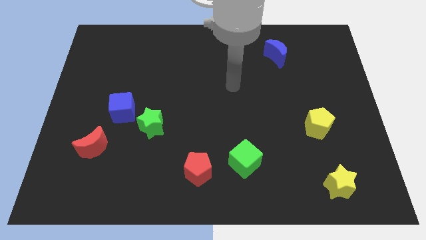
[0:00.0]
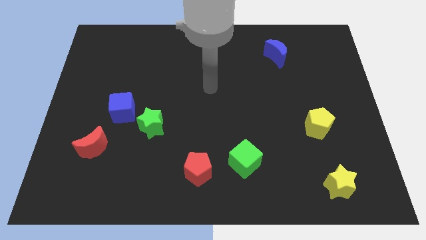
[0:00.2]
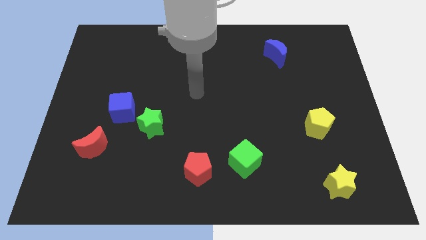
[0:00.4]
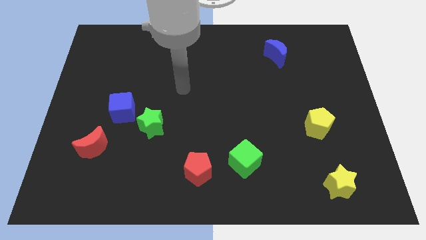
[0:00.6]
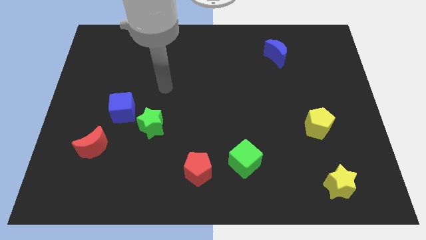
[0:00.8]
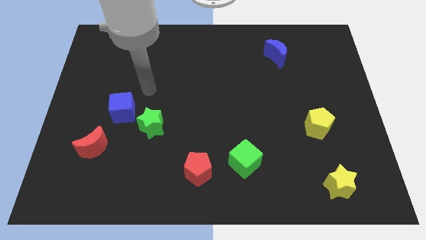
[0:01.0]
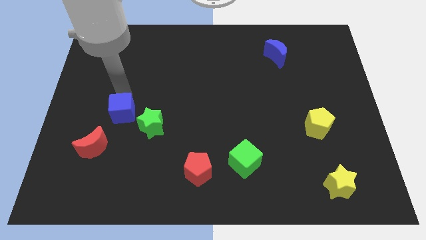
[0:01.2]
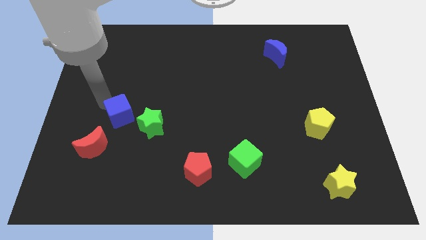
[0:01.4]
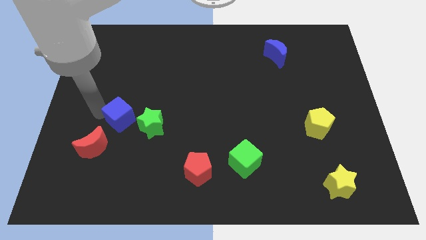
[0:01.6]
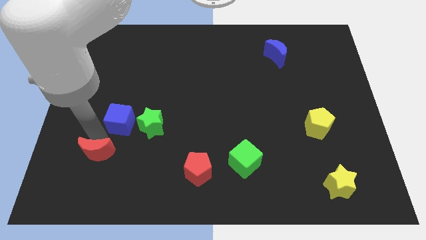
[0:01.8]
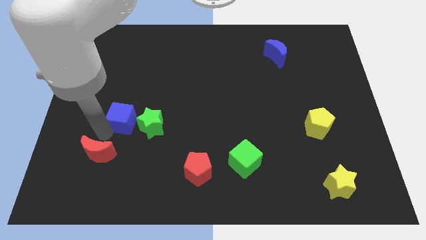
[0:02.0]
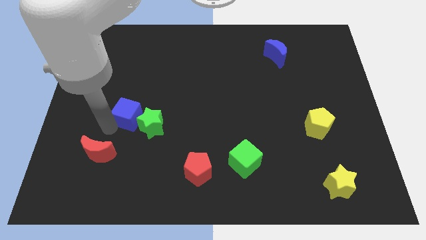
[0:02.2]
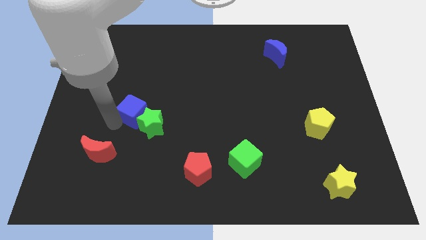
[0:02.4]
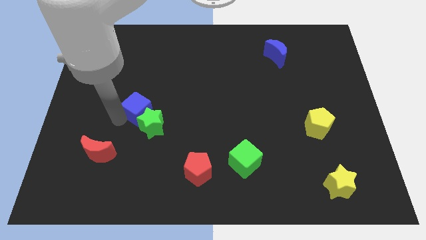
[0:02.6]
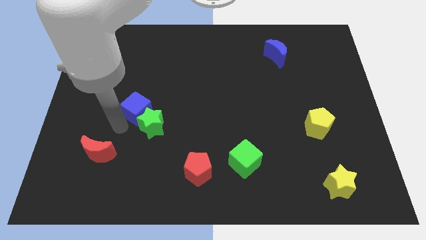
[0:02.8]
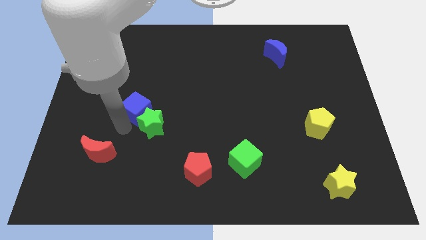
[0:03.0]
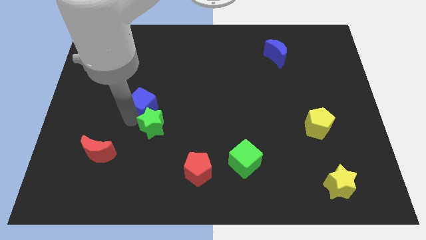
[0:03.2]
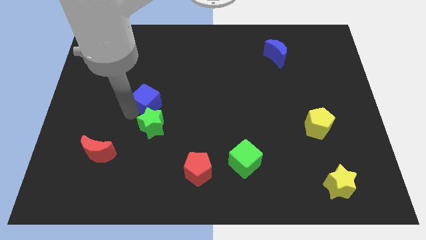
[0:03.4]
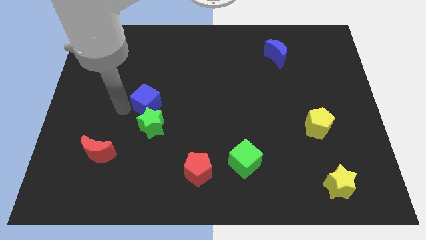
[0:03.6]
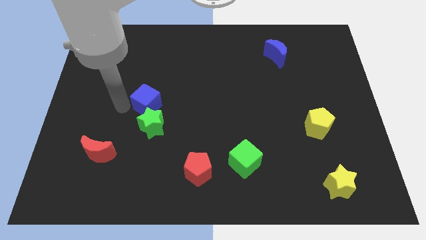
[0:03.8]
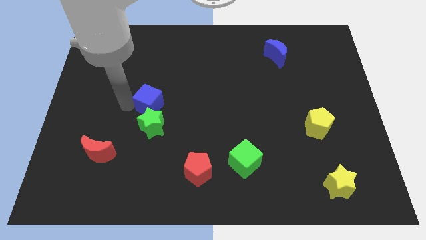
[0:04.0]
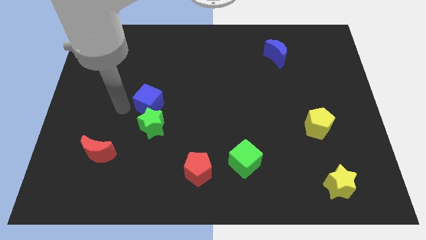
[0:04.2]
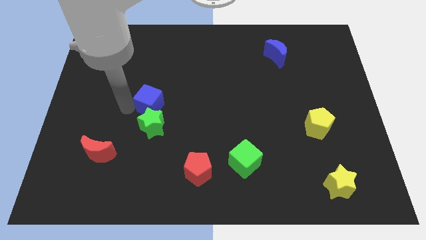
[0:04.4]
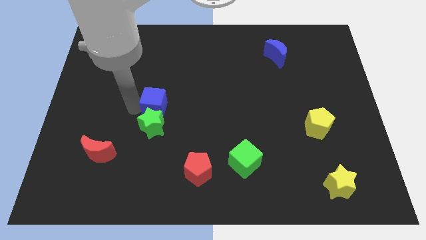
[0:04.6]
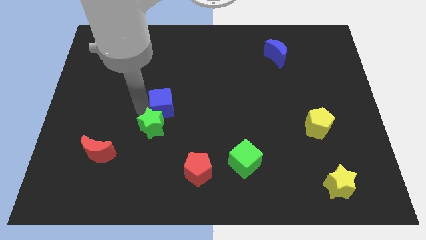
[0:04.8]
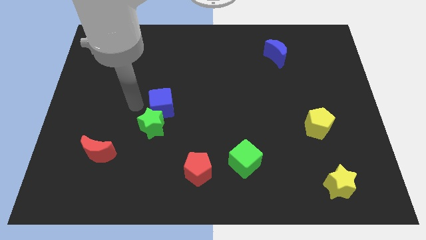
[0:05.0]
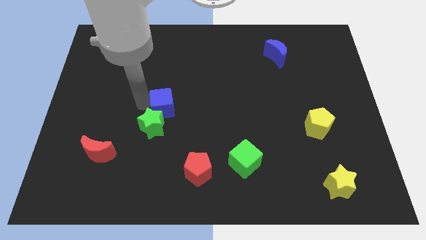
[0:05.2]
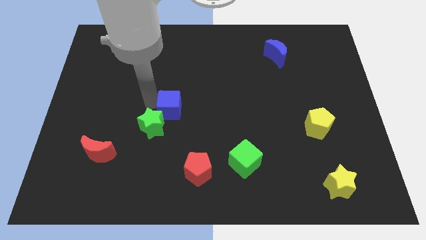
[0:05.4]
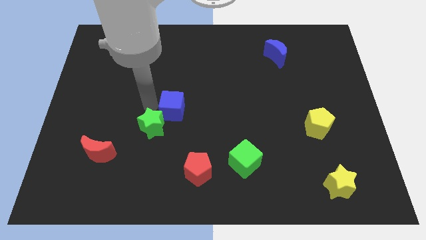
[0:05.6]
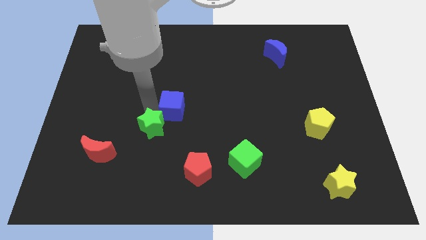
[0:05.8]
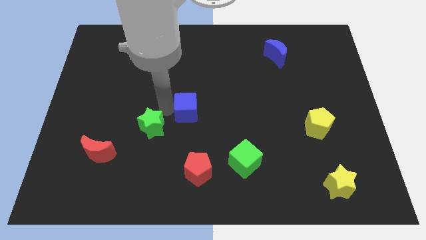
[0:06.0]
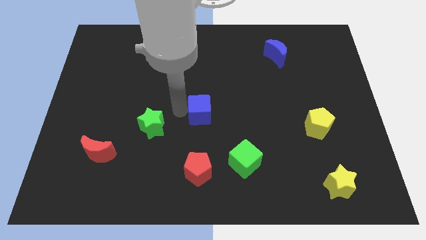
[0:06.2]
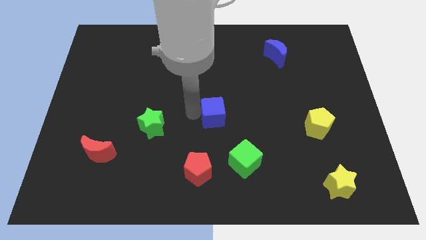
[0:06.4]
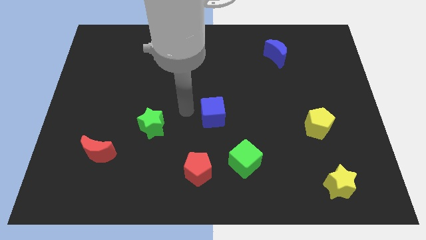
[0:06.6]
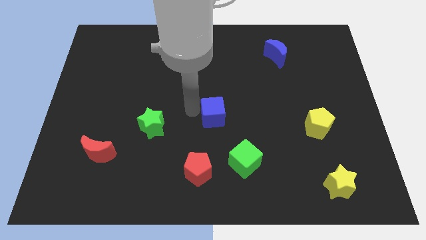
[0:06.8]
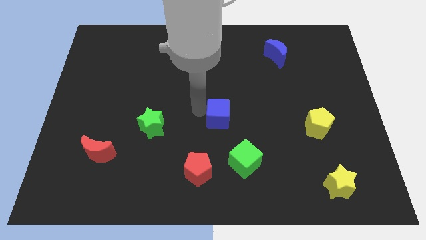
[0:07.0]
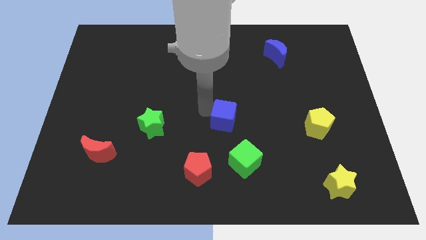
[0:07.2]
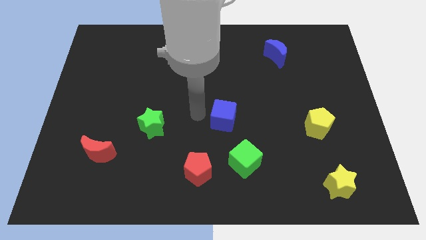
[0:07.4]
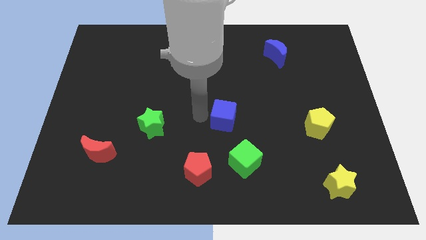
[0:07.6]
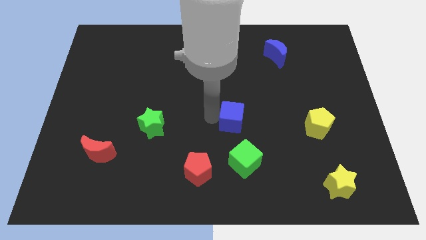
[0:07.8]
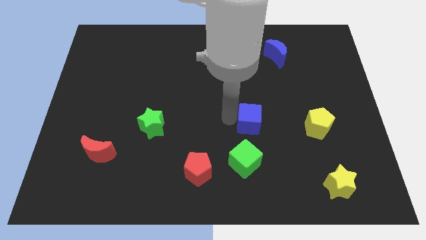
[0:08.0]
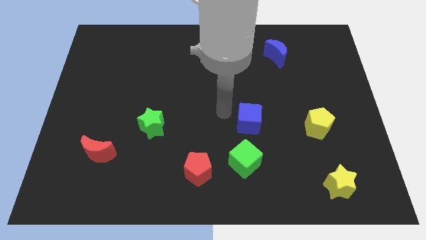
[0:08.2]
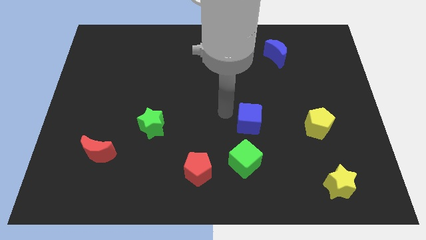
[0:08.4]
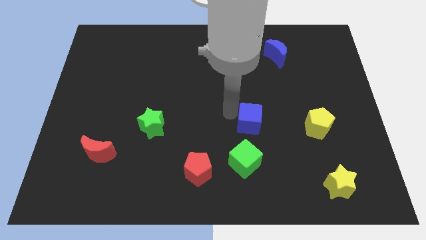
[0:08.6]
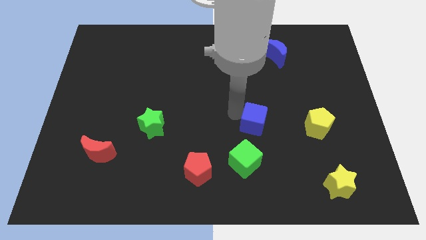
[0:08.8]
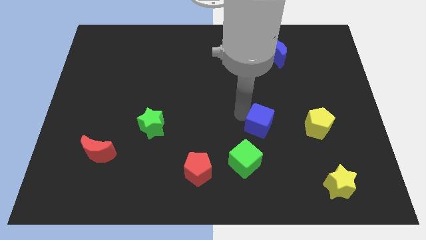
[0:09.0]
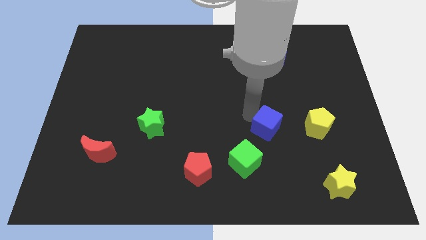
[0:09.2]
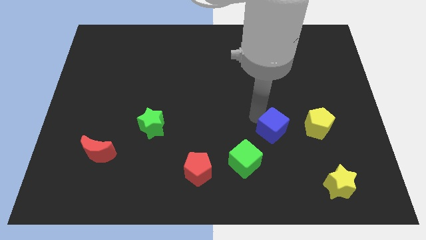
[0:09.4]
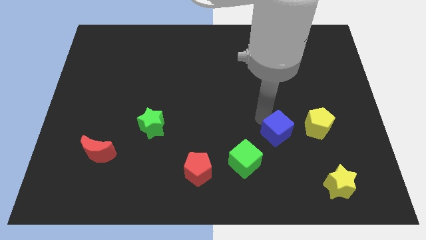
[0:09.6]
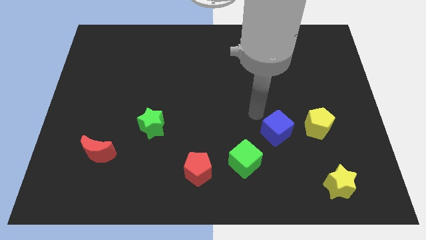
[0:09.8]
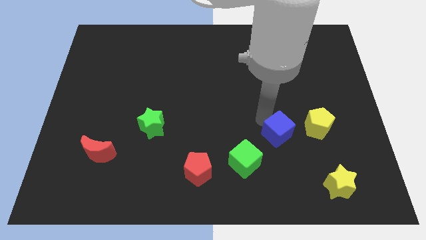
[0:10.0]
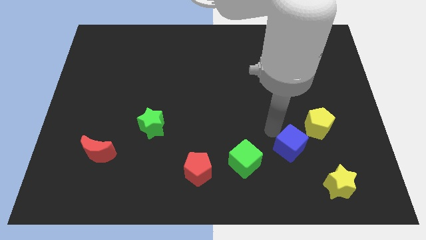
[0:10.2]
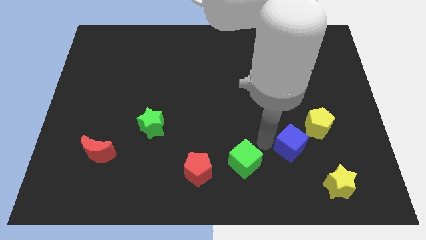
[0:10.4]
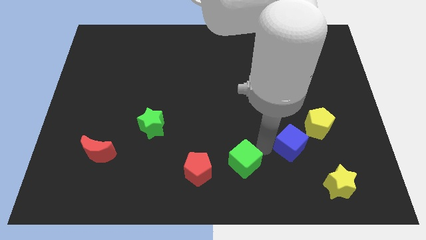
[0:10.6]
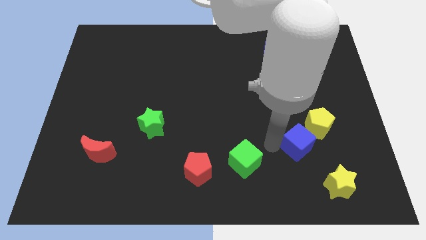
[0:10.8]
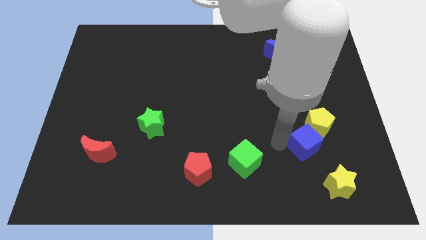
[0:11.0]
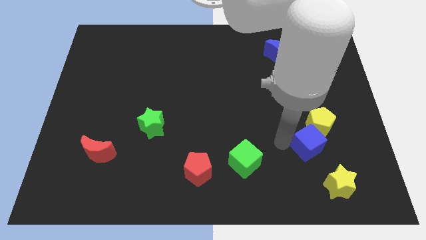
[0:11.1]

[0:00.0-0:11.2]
move the blue cube to the top of the yellow star

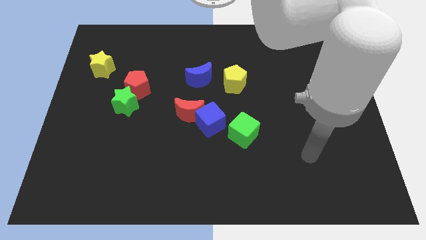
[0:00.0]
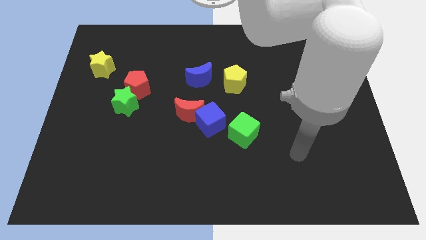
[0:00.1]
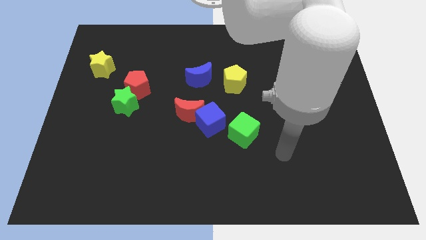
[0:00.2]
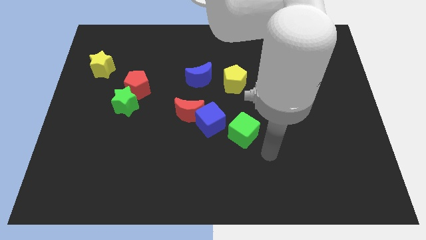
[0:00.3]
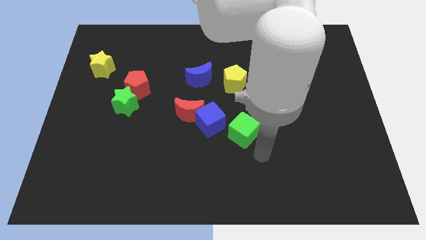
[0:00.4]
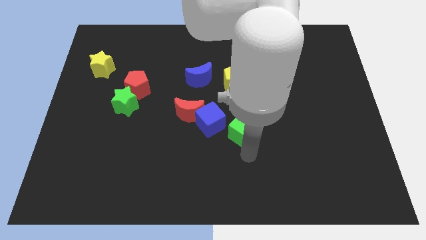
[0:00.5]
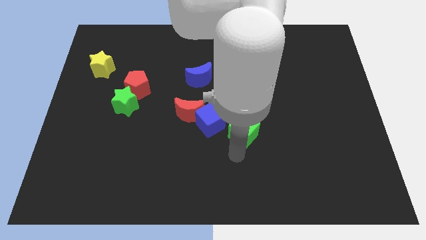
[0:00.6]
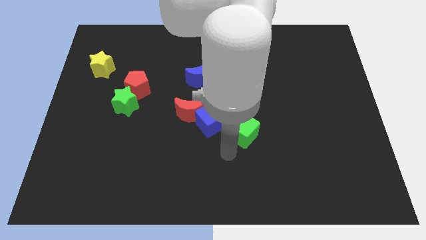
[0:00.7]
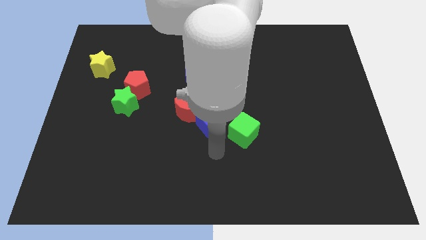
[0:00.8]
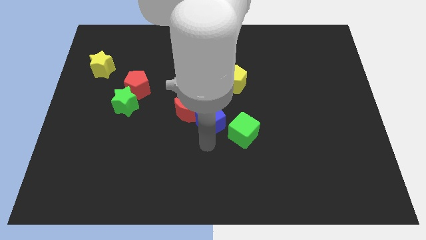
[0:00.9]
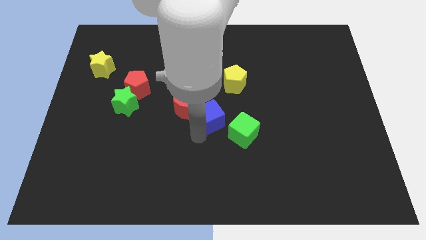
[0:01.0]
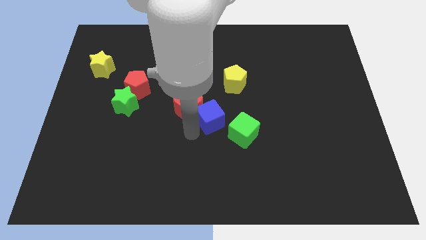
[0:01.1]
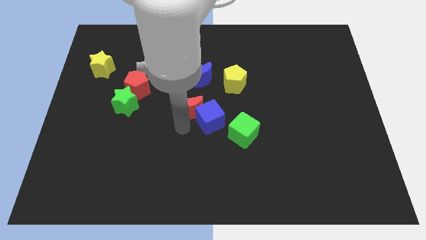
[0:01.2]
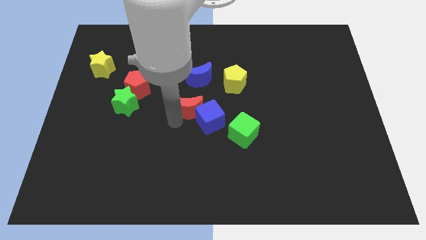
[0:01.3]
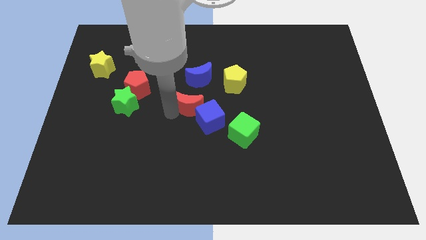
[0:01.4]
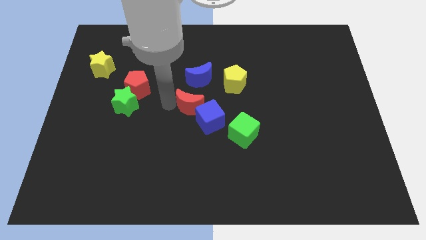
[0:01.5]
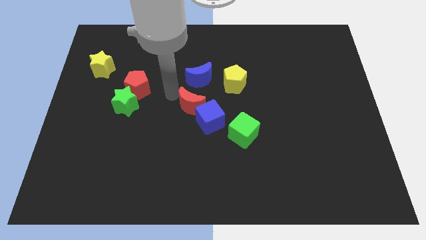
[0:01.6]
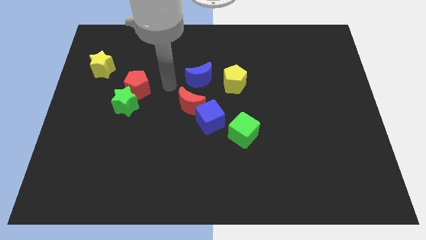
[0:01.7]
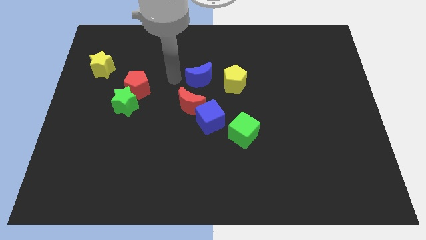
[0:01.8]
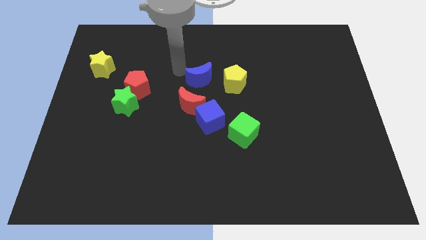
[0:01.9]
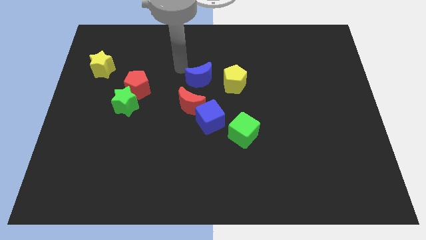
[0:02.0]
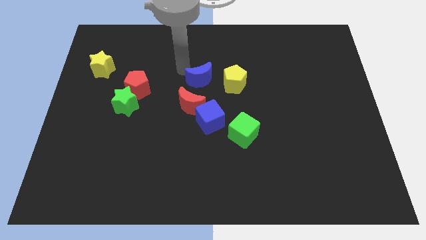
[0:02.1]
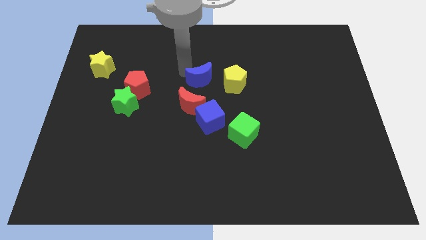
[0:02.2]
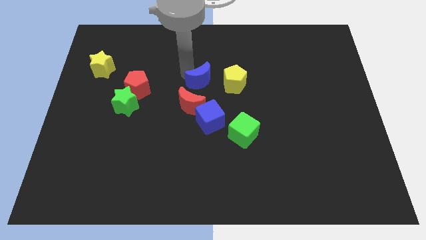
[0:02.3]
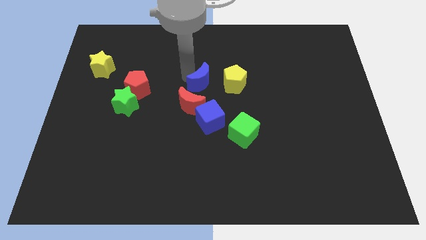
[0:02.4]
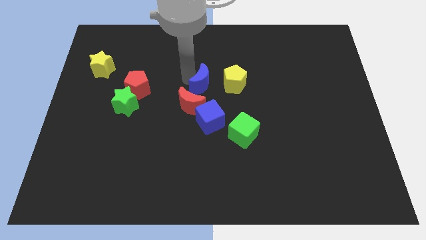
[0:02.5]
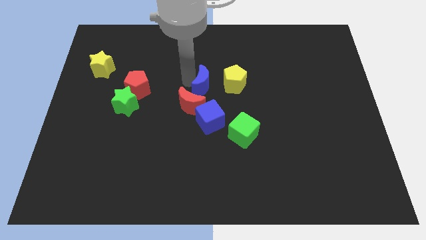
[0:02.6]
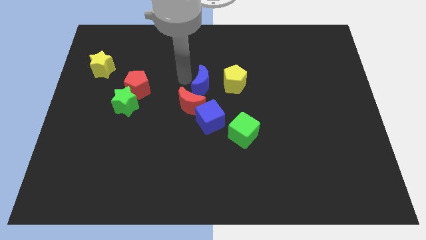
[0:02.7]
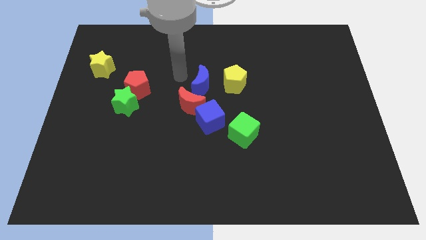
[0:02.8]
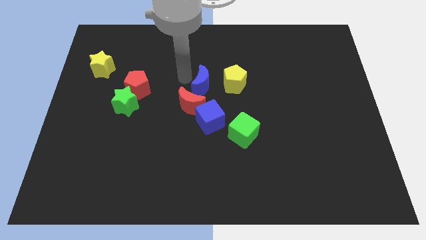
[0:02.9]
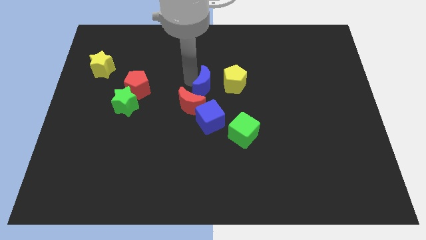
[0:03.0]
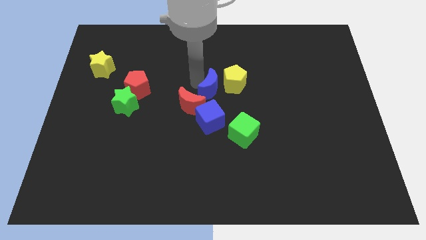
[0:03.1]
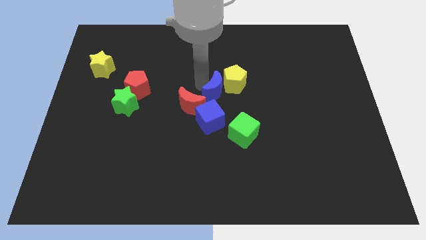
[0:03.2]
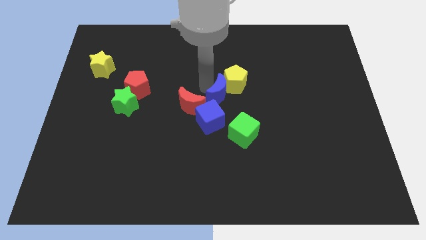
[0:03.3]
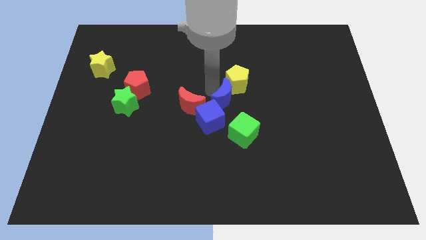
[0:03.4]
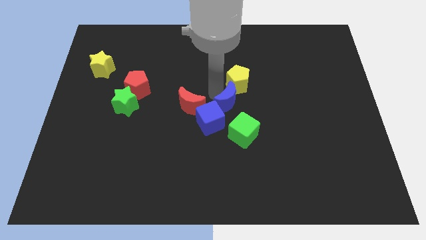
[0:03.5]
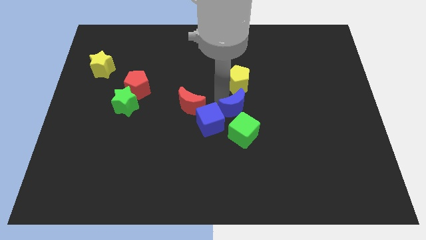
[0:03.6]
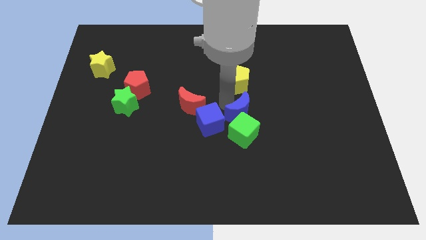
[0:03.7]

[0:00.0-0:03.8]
put the blue moon to the top right side of the green cube
